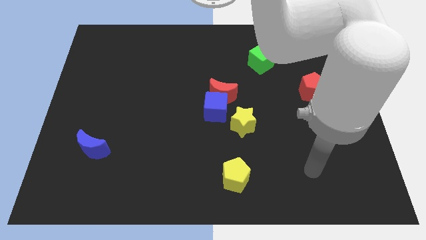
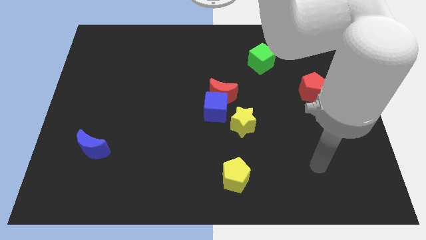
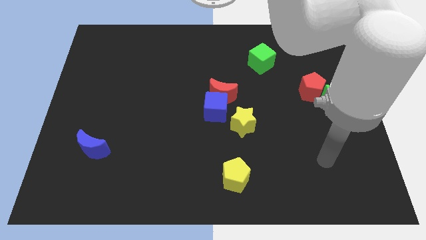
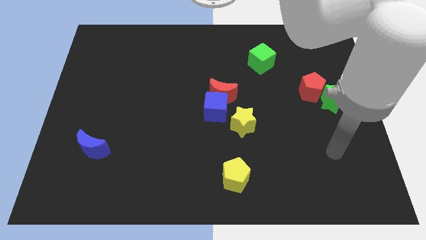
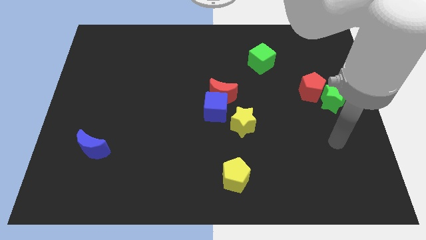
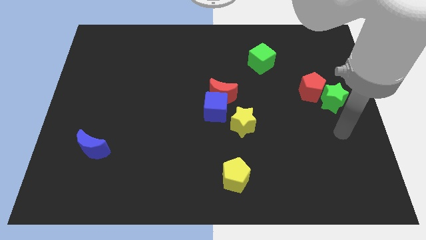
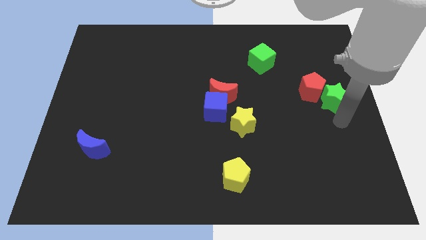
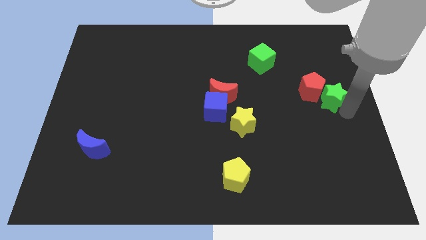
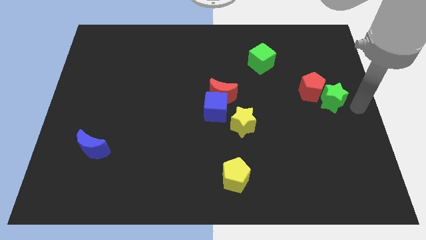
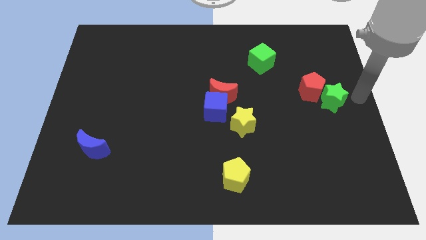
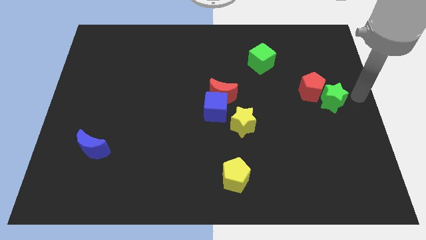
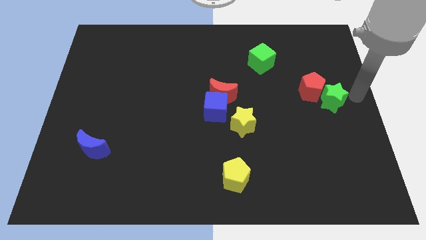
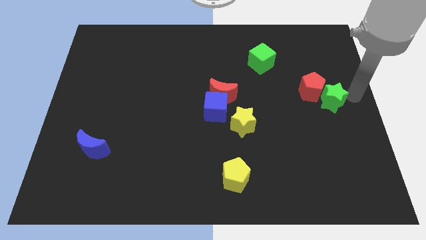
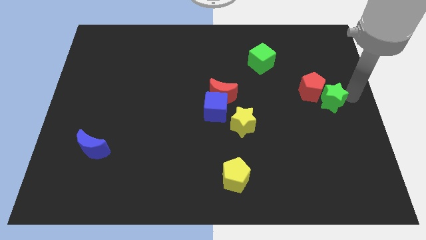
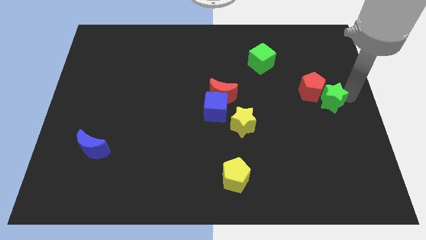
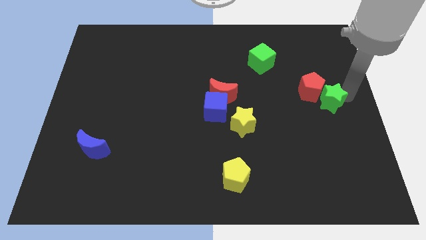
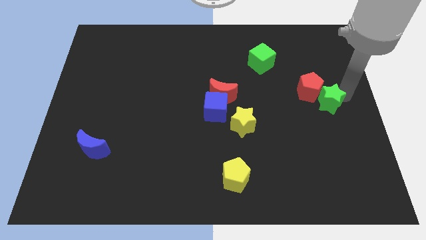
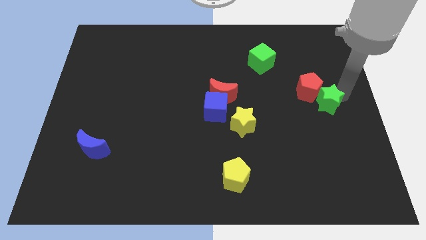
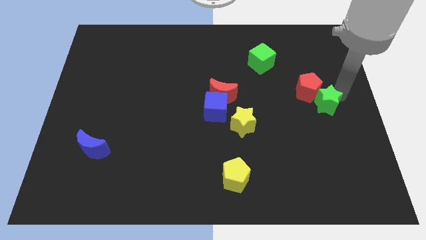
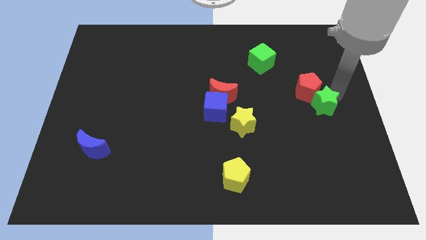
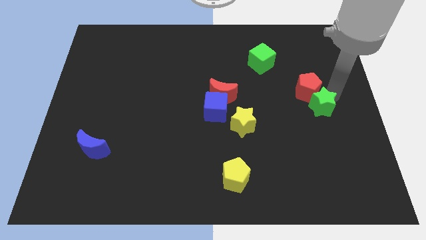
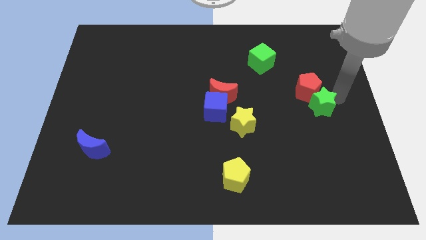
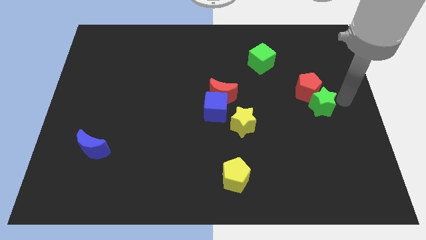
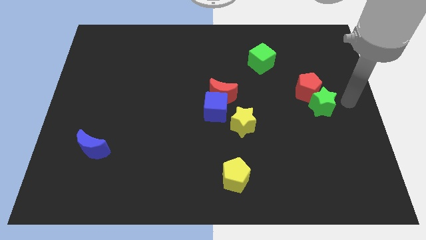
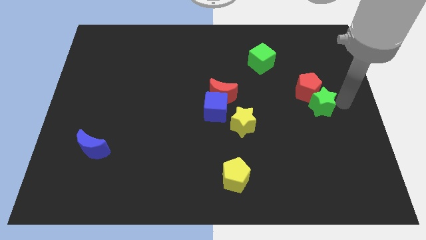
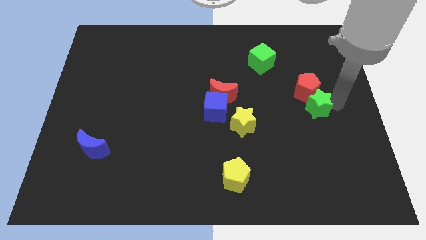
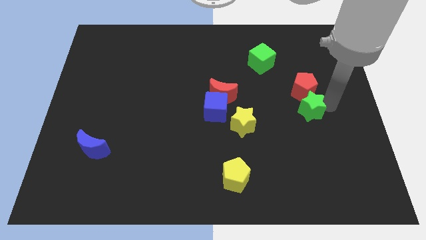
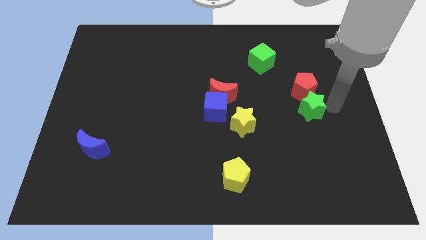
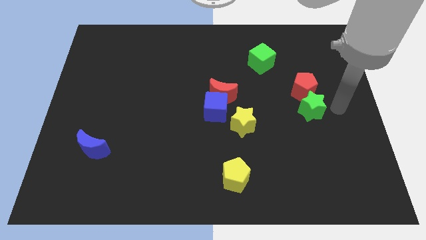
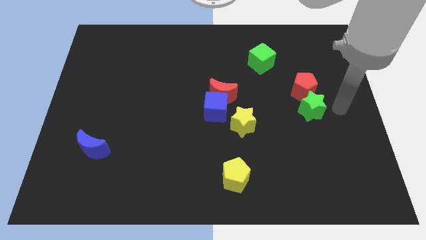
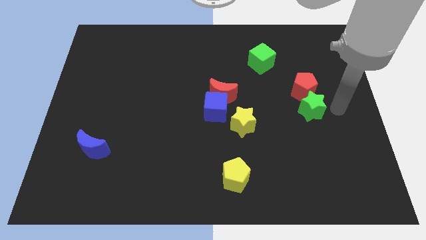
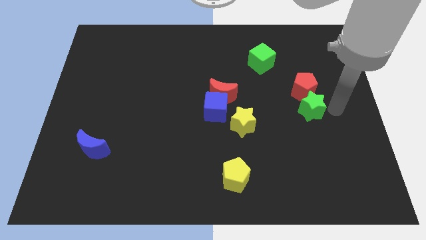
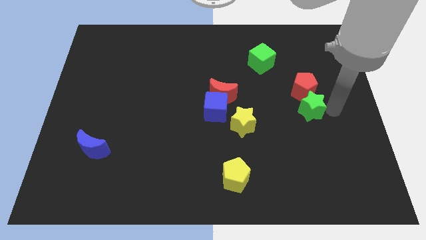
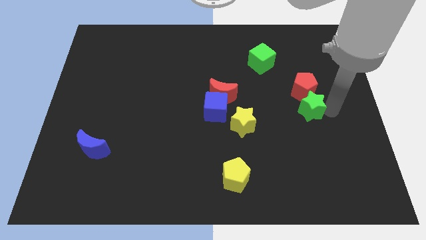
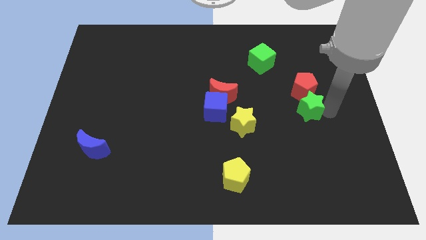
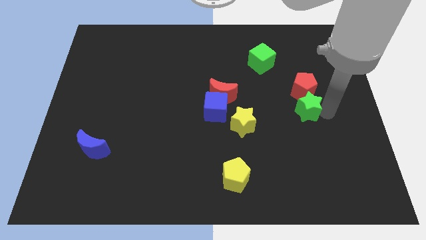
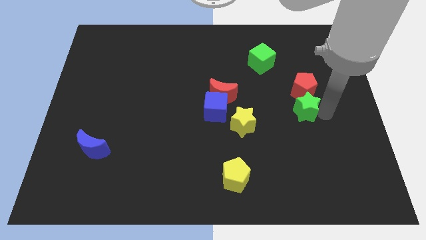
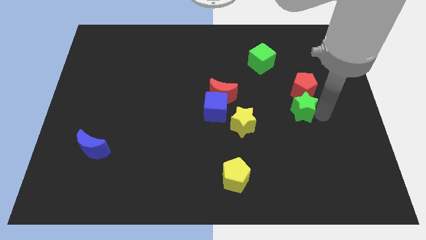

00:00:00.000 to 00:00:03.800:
slightly push the green star left

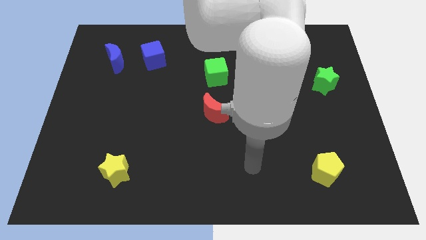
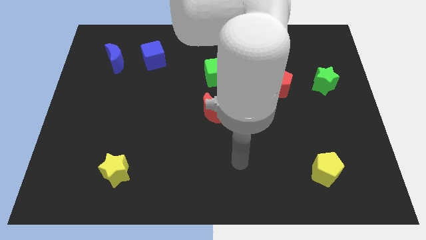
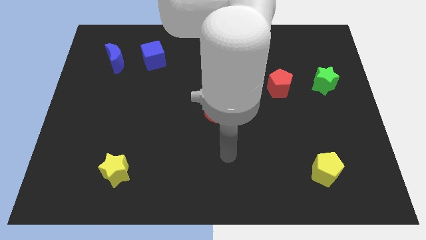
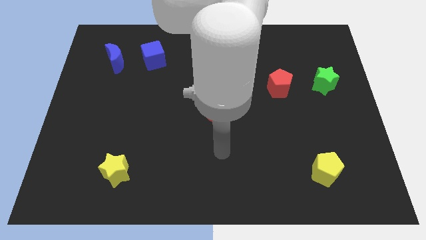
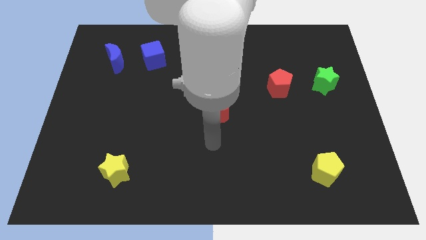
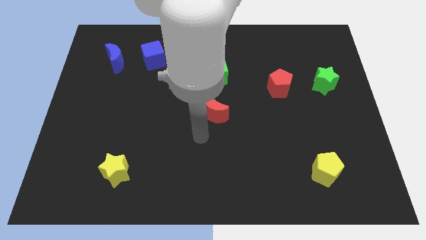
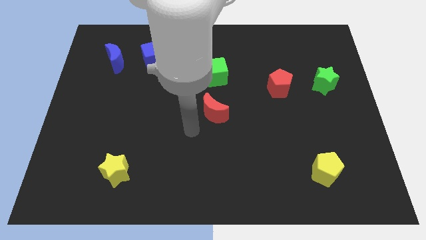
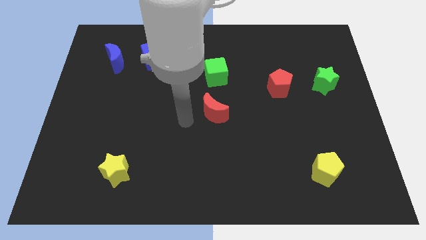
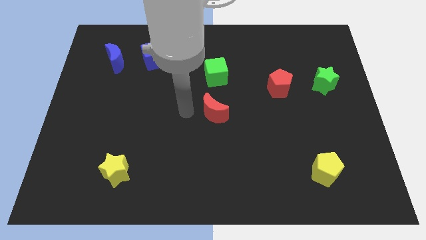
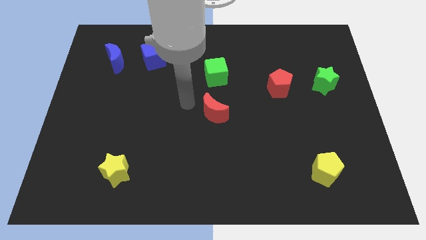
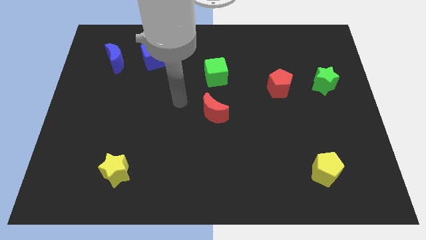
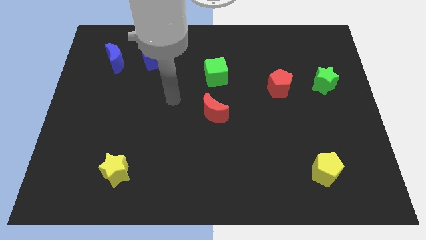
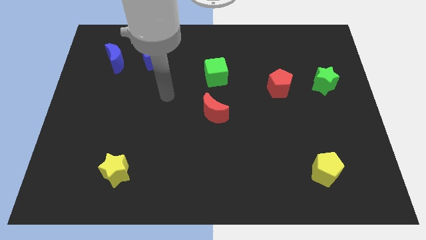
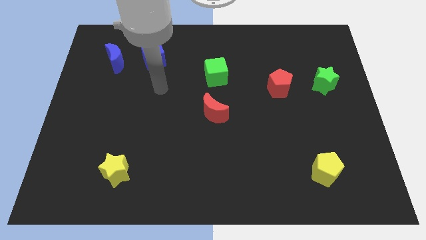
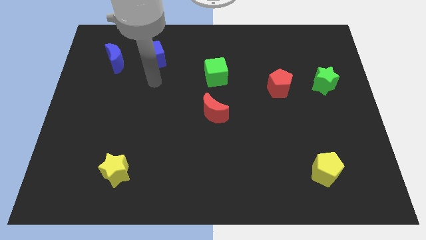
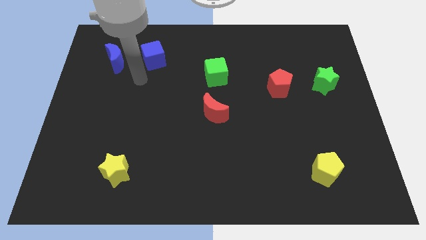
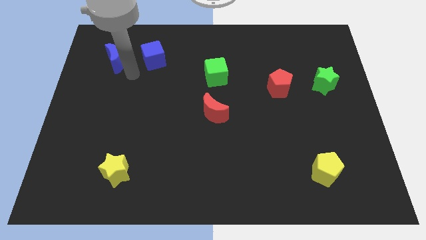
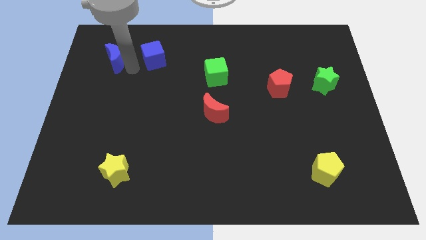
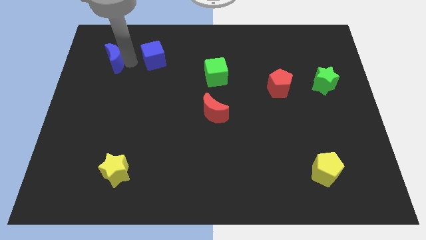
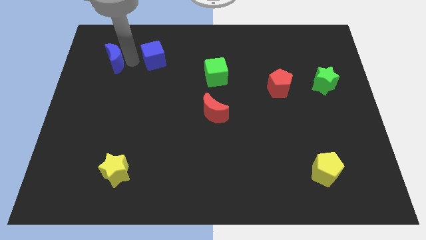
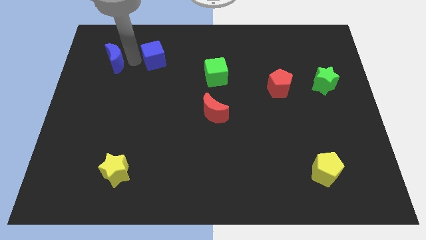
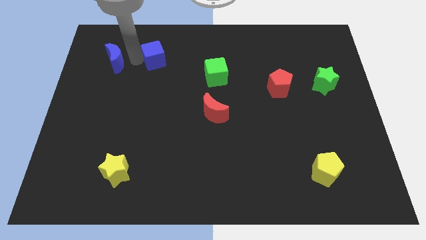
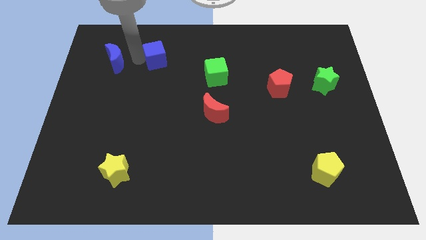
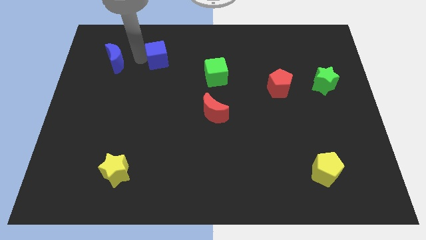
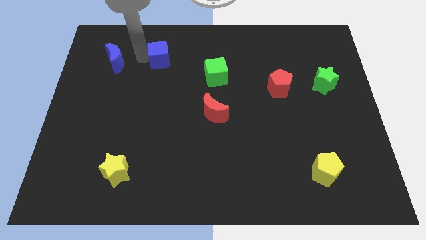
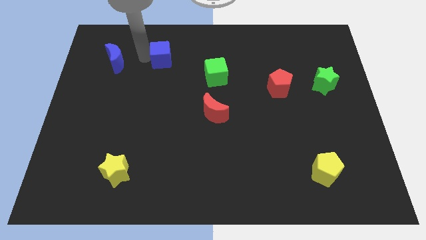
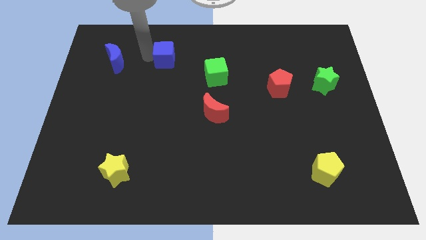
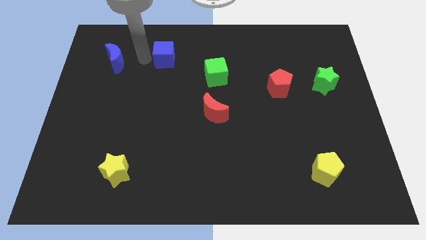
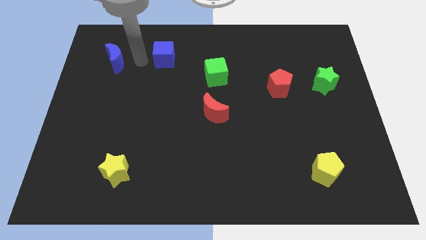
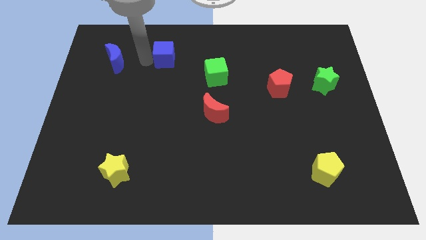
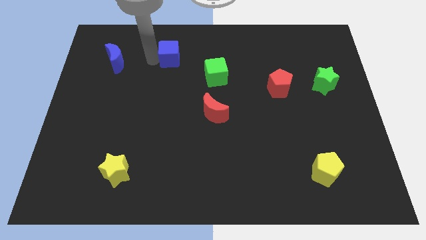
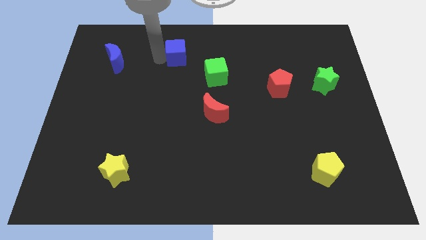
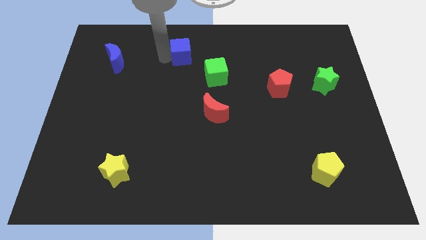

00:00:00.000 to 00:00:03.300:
push the blue cube somewhat to the right

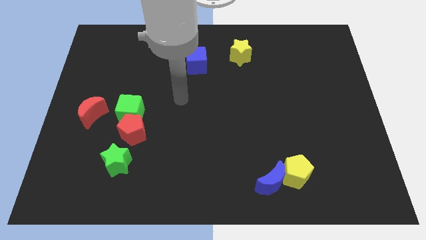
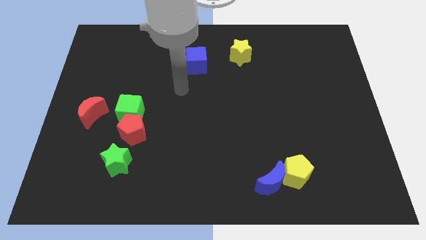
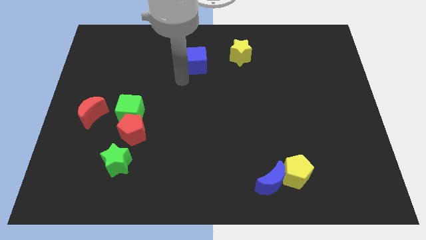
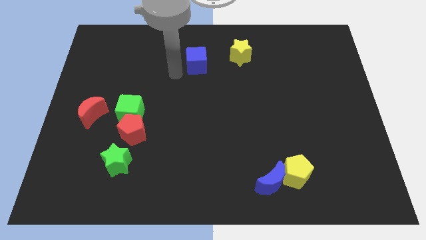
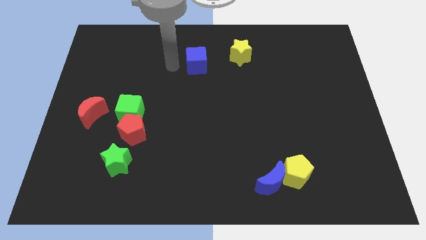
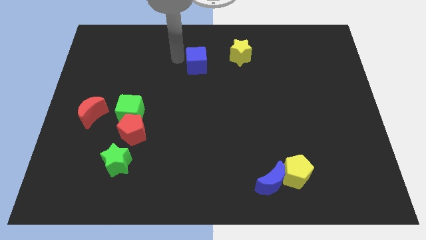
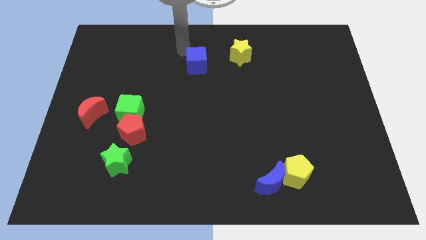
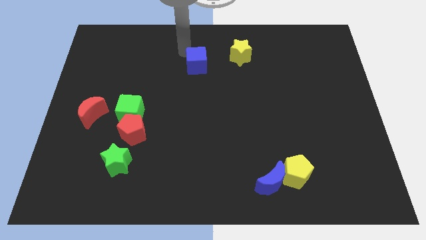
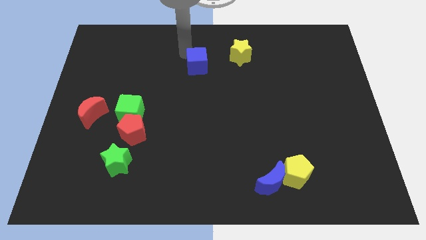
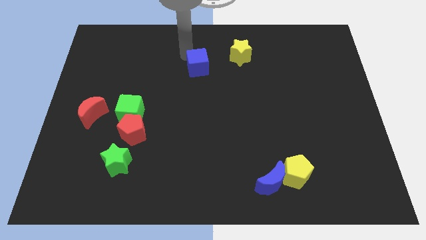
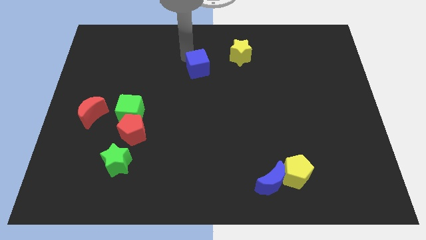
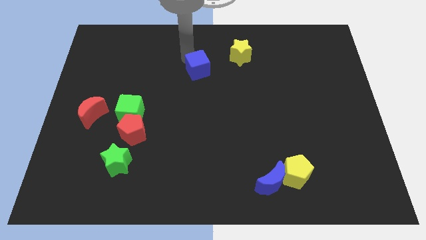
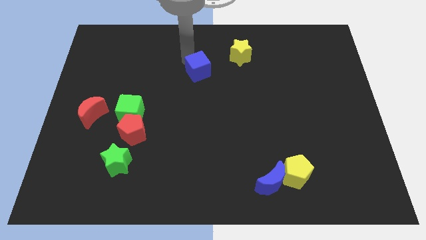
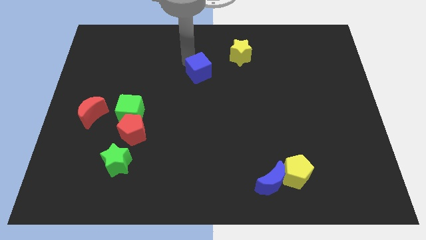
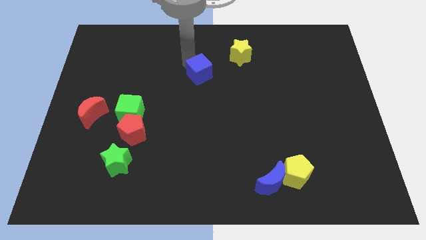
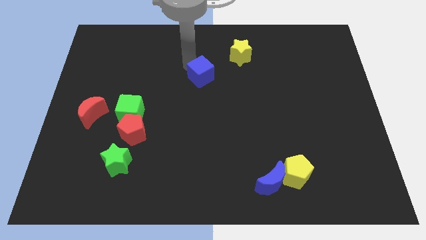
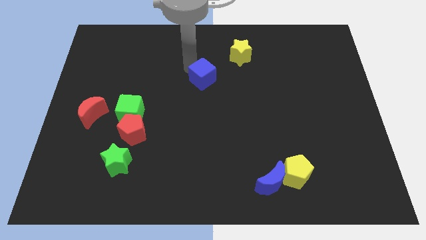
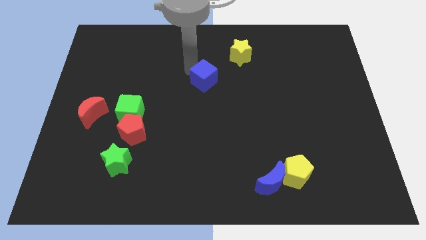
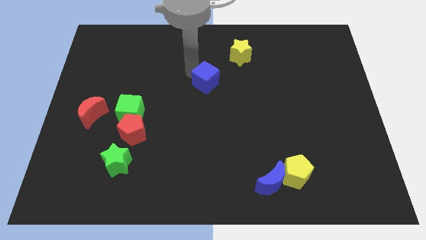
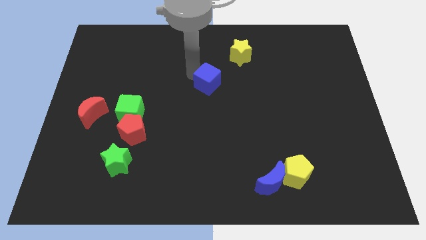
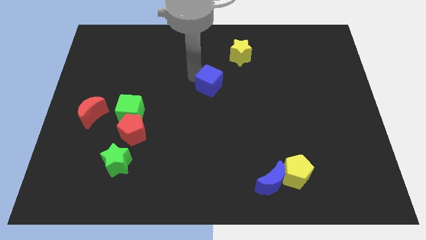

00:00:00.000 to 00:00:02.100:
slightly slide the blue cube diagonally downwards and to the right
